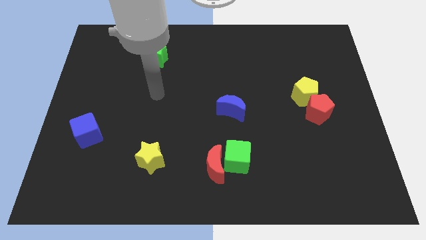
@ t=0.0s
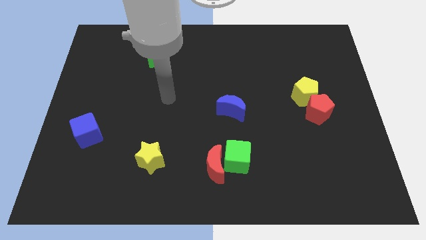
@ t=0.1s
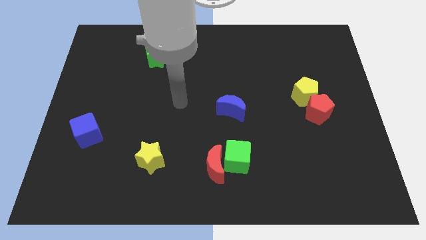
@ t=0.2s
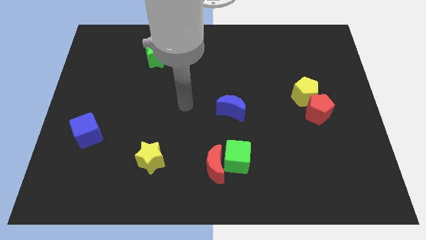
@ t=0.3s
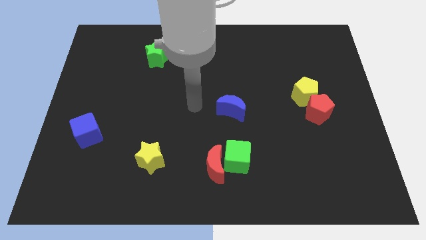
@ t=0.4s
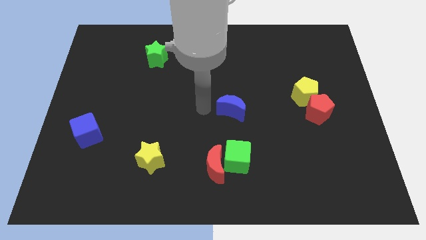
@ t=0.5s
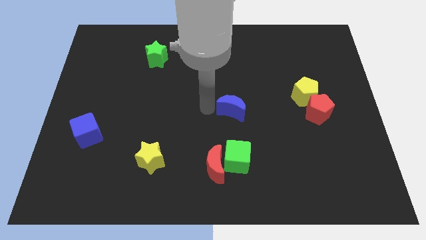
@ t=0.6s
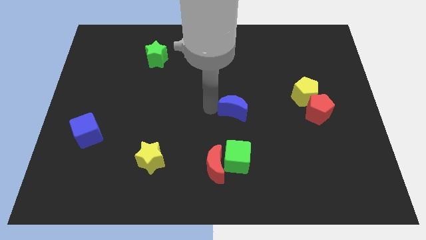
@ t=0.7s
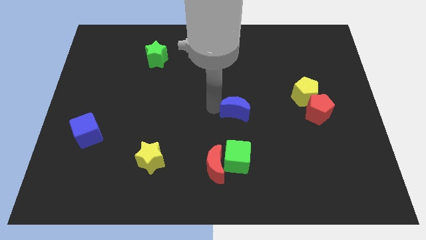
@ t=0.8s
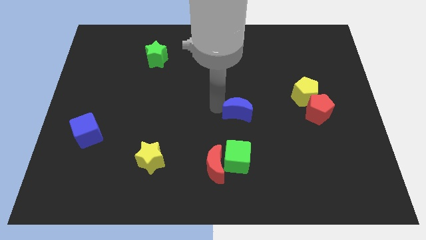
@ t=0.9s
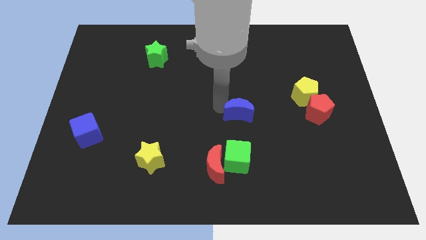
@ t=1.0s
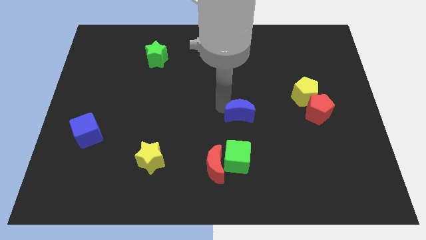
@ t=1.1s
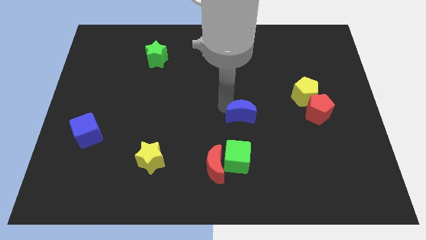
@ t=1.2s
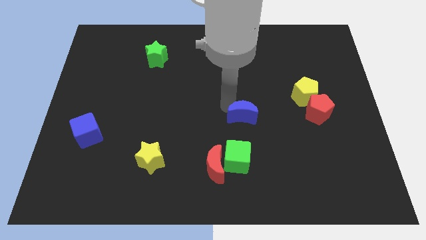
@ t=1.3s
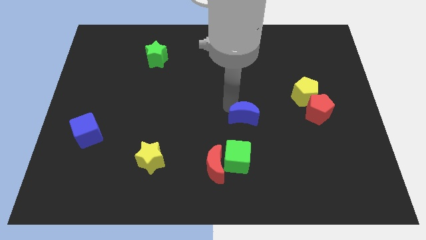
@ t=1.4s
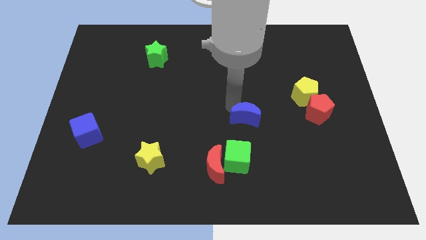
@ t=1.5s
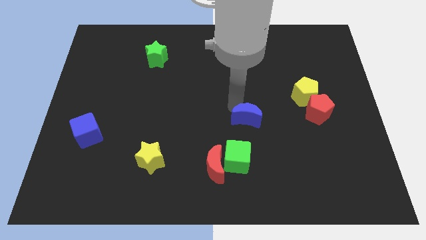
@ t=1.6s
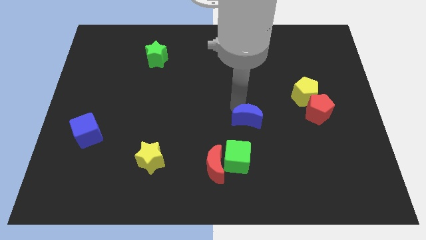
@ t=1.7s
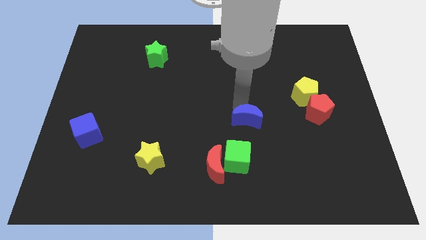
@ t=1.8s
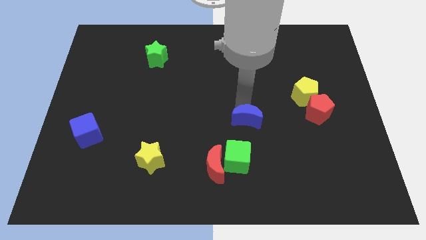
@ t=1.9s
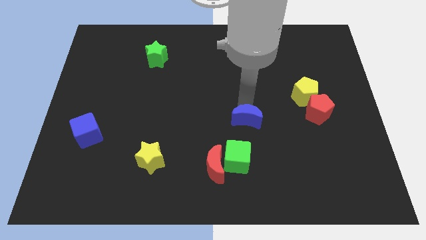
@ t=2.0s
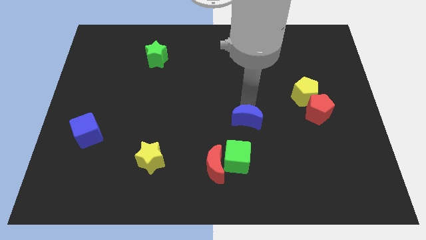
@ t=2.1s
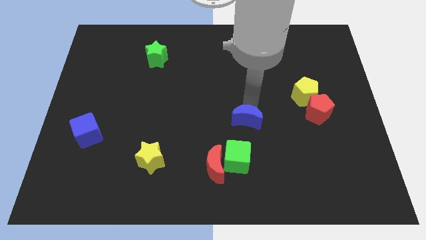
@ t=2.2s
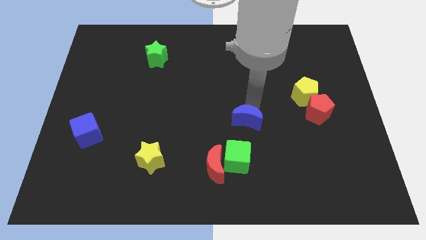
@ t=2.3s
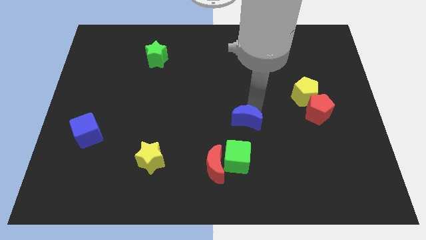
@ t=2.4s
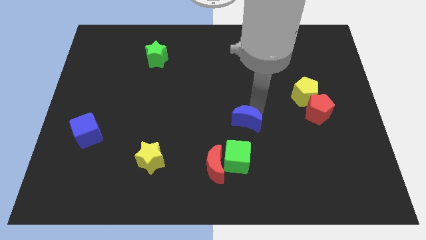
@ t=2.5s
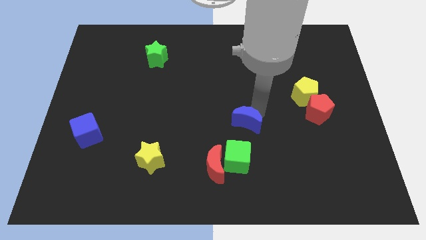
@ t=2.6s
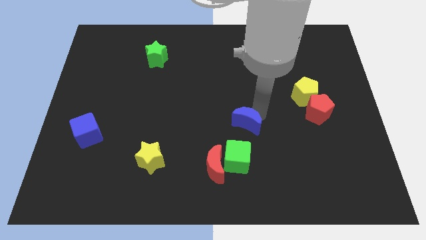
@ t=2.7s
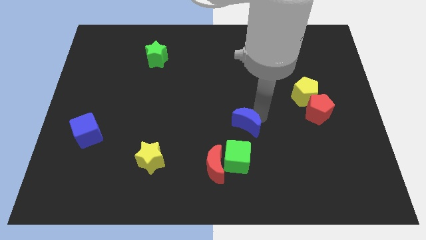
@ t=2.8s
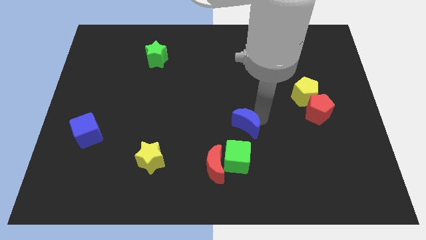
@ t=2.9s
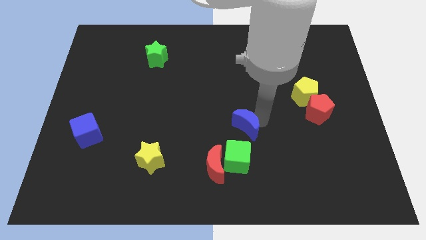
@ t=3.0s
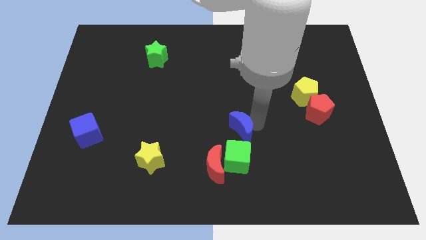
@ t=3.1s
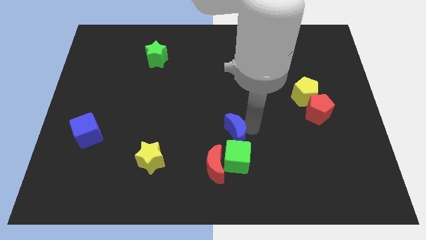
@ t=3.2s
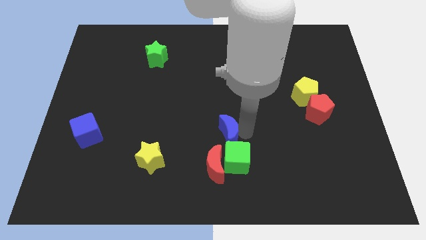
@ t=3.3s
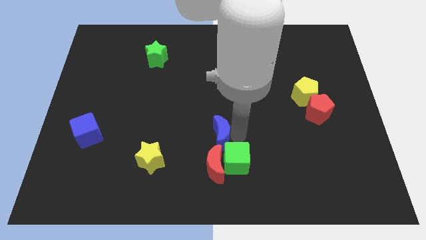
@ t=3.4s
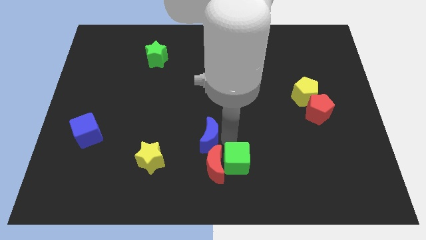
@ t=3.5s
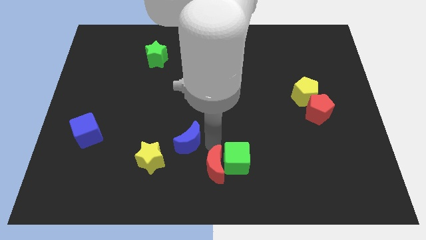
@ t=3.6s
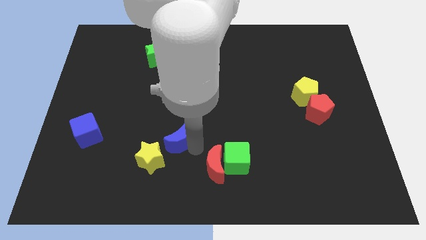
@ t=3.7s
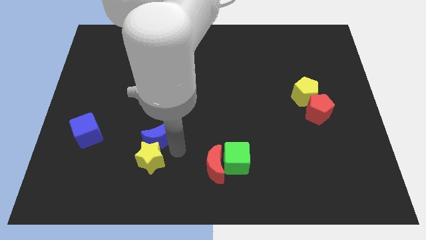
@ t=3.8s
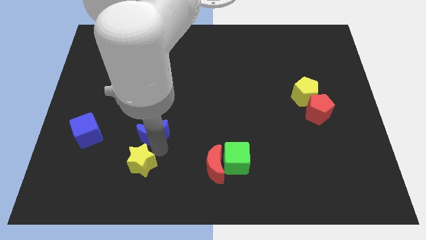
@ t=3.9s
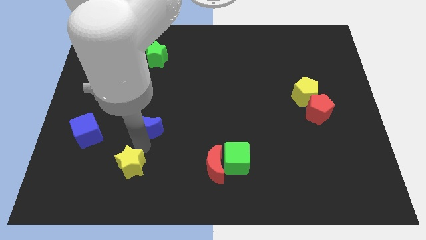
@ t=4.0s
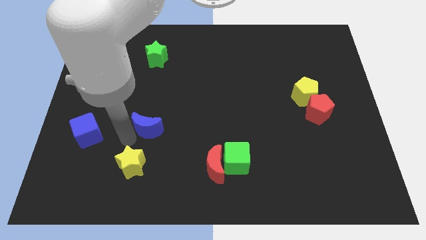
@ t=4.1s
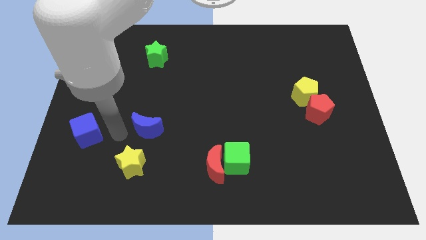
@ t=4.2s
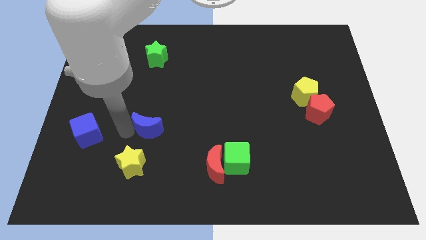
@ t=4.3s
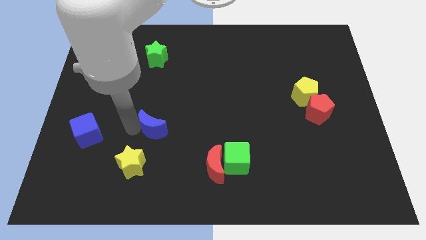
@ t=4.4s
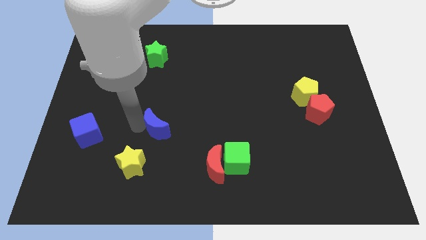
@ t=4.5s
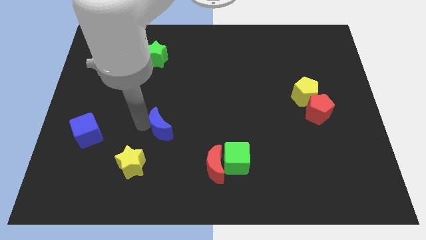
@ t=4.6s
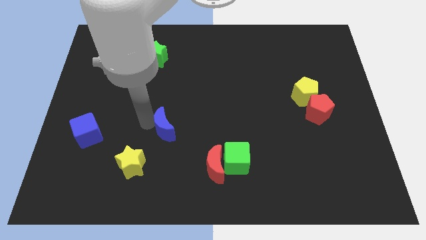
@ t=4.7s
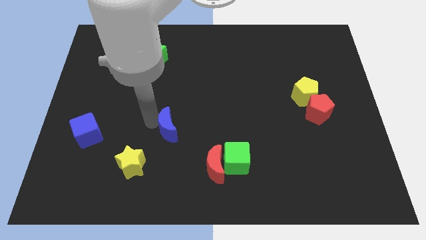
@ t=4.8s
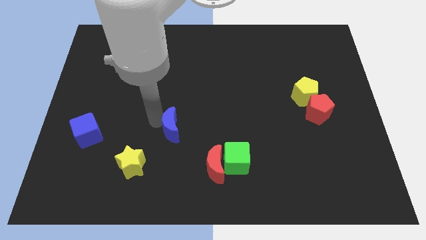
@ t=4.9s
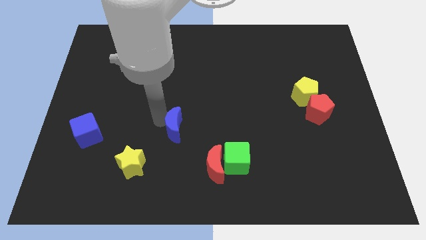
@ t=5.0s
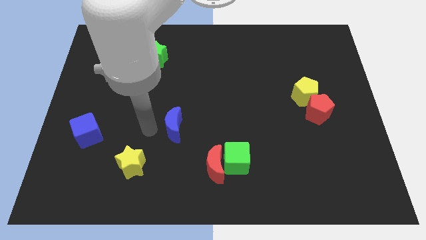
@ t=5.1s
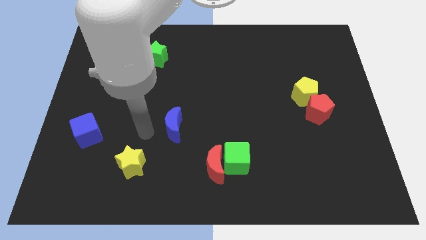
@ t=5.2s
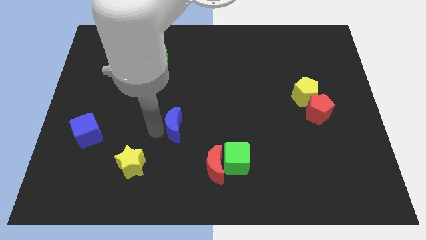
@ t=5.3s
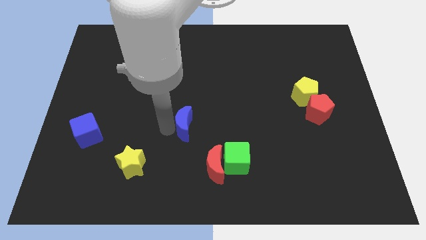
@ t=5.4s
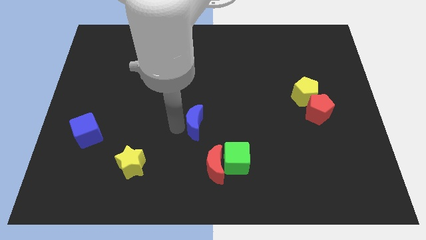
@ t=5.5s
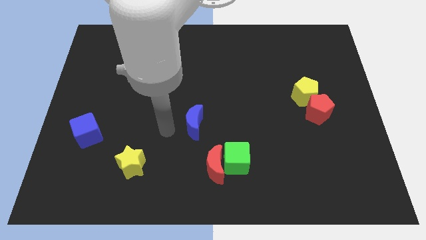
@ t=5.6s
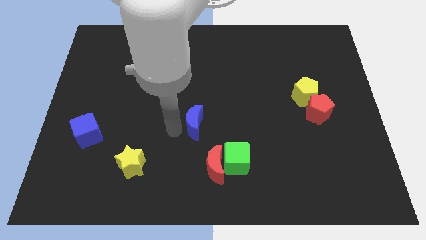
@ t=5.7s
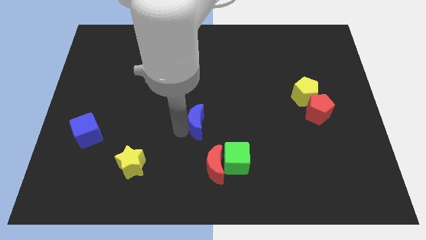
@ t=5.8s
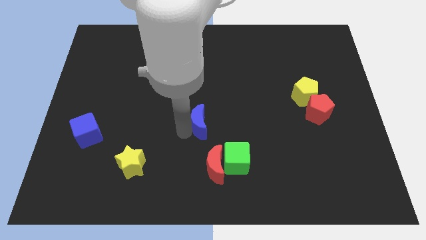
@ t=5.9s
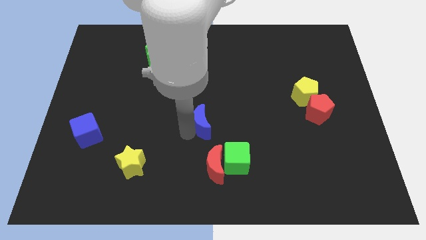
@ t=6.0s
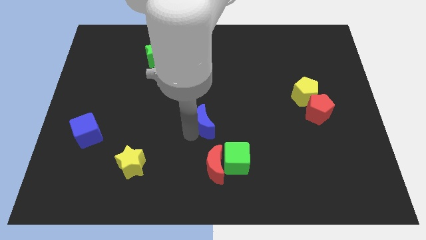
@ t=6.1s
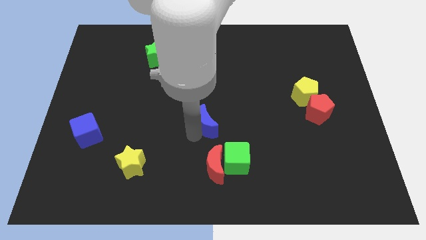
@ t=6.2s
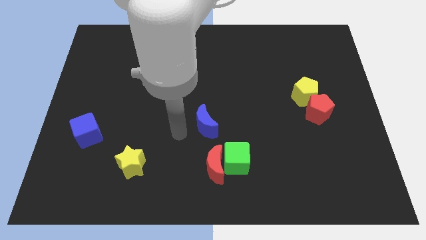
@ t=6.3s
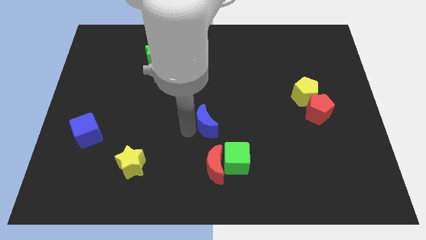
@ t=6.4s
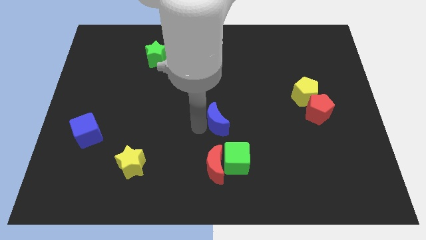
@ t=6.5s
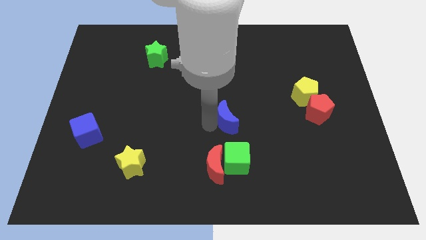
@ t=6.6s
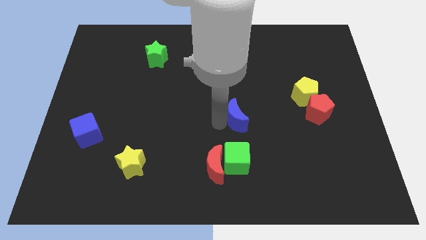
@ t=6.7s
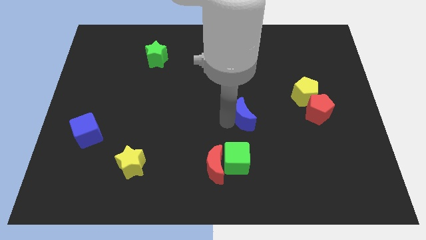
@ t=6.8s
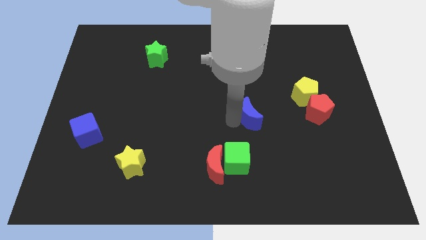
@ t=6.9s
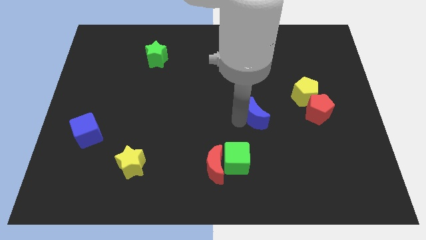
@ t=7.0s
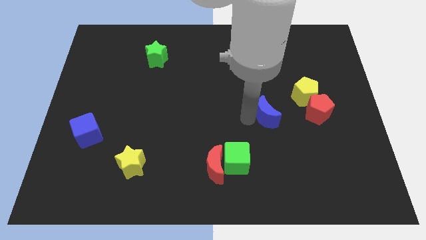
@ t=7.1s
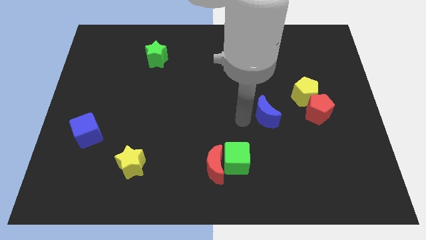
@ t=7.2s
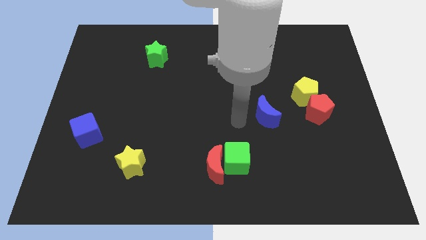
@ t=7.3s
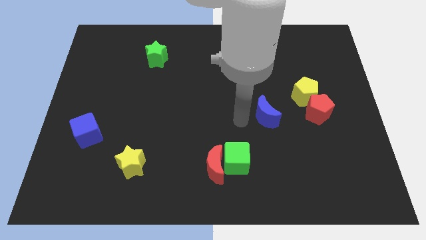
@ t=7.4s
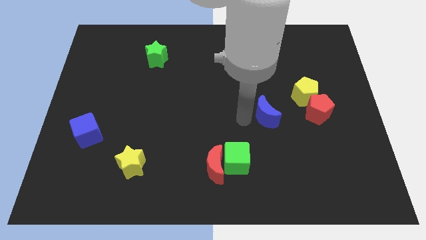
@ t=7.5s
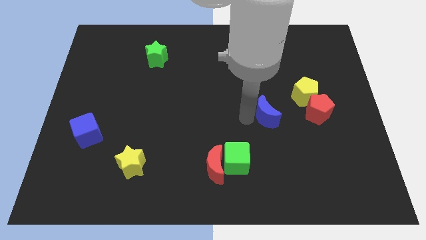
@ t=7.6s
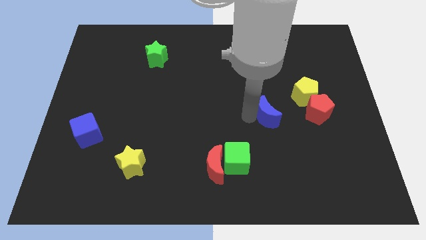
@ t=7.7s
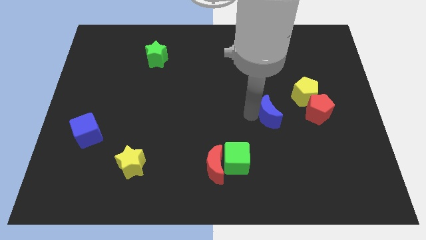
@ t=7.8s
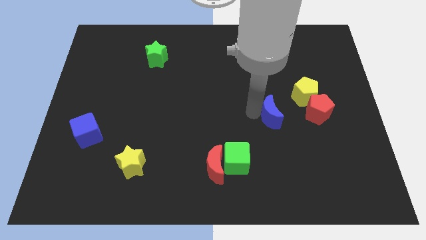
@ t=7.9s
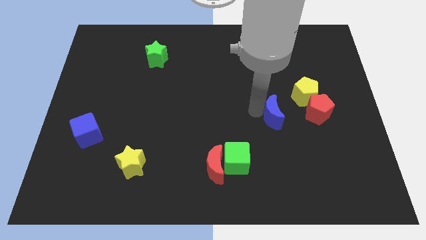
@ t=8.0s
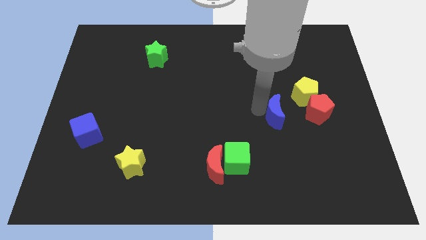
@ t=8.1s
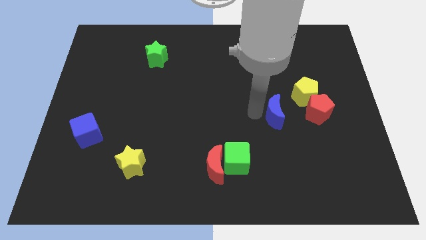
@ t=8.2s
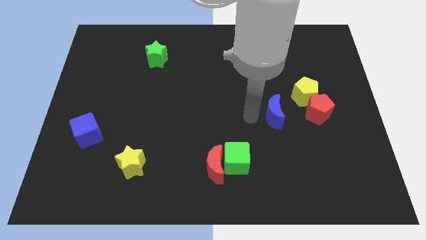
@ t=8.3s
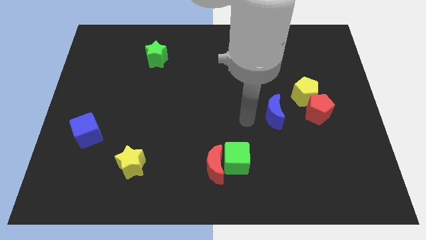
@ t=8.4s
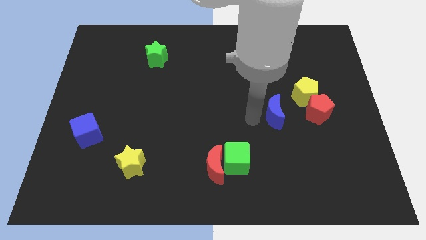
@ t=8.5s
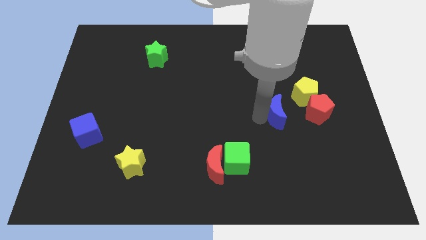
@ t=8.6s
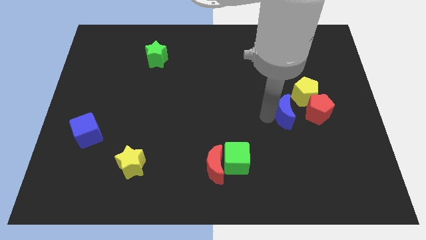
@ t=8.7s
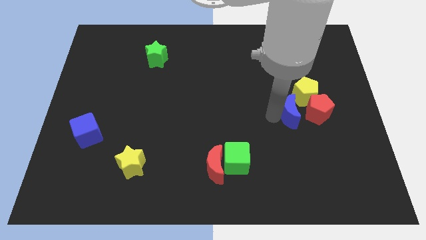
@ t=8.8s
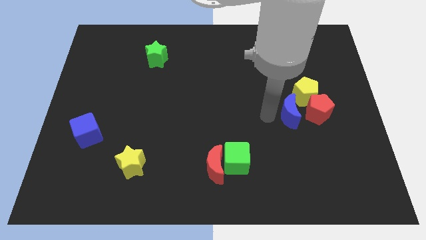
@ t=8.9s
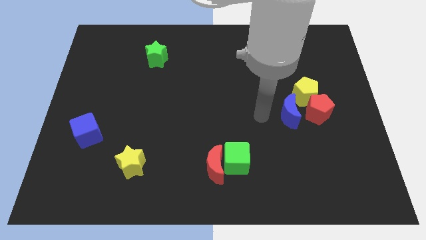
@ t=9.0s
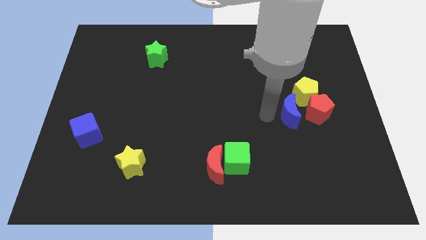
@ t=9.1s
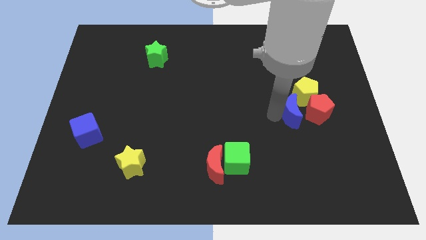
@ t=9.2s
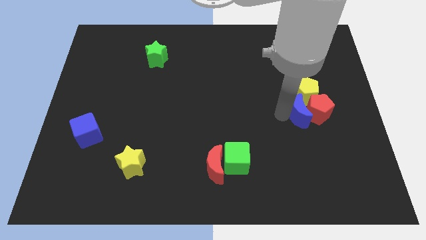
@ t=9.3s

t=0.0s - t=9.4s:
put the blue moon to the red pentagon
